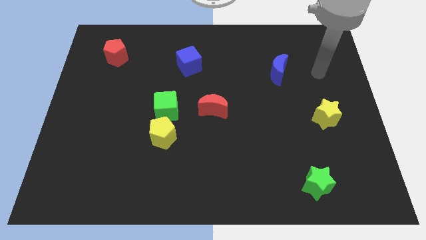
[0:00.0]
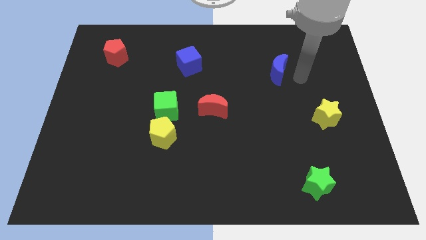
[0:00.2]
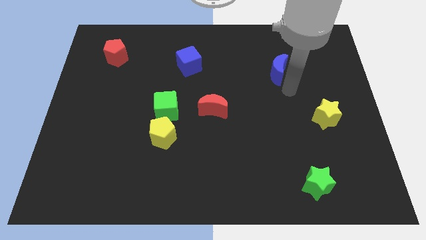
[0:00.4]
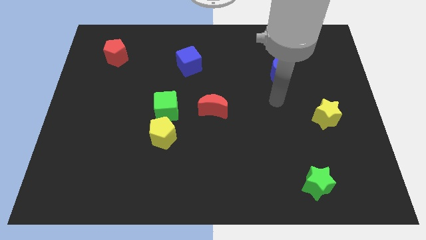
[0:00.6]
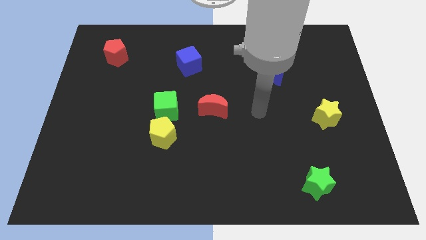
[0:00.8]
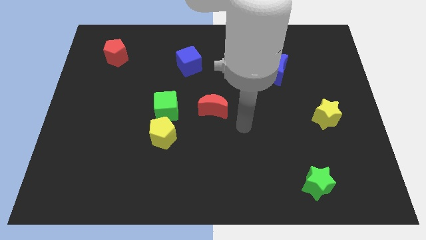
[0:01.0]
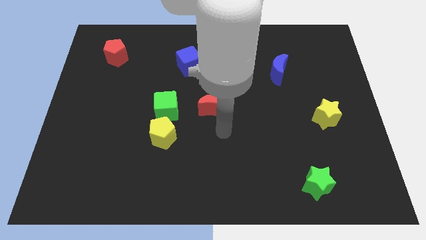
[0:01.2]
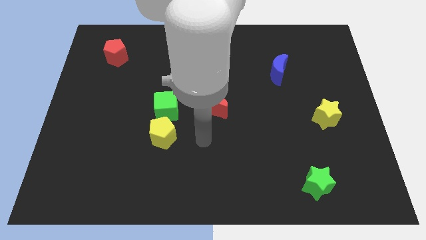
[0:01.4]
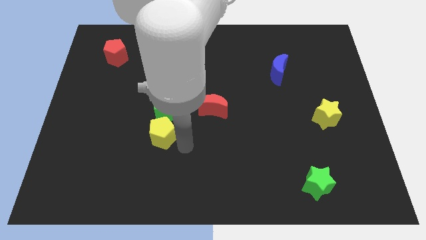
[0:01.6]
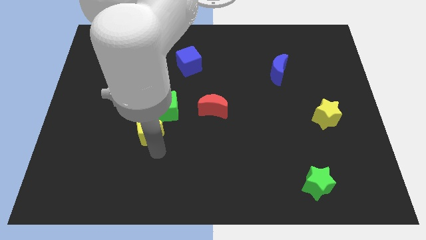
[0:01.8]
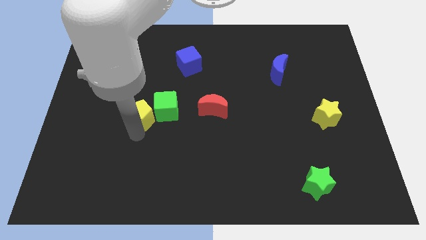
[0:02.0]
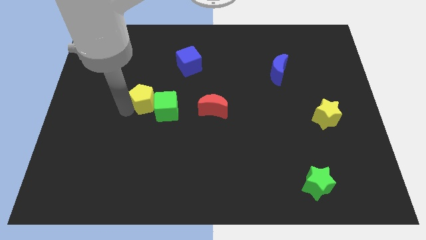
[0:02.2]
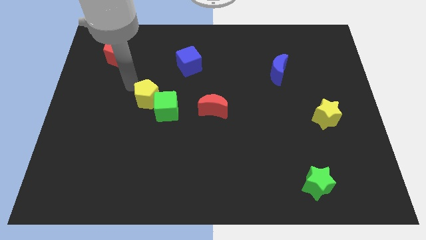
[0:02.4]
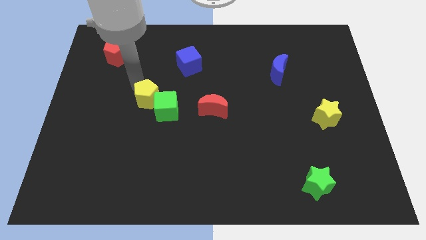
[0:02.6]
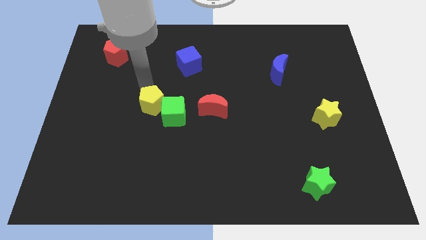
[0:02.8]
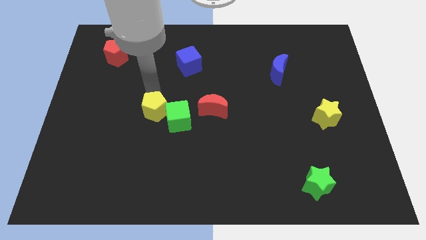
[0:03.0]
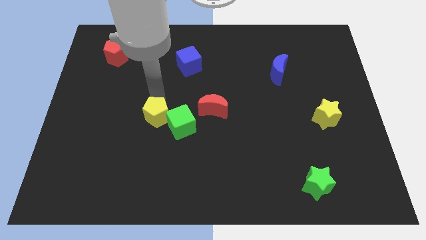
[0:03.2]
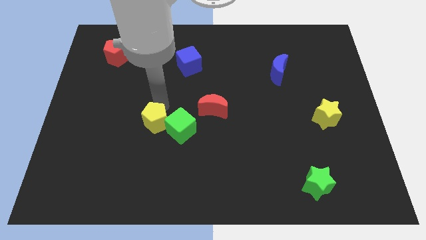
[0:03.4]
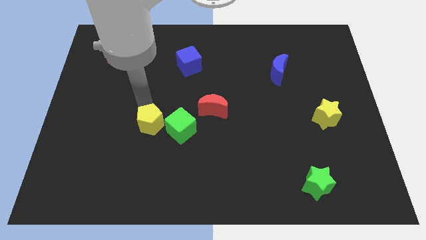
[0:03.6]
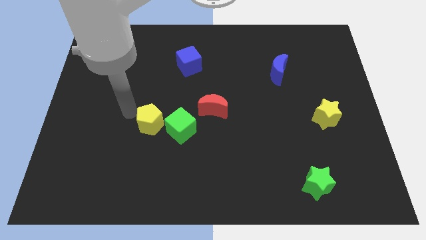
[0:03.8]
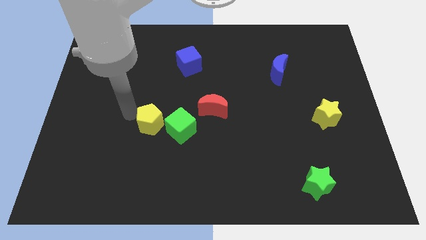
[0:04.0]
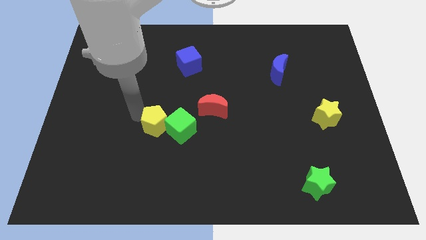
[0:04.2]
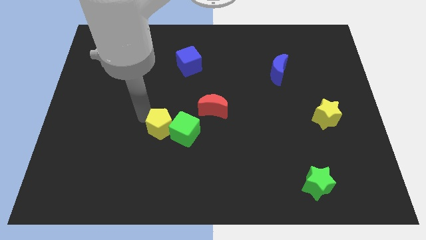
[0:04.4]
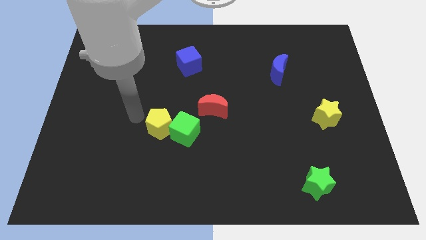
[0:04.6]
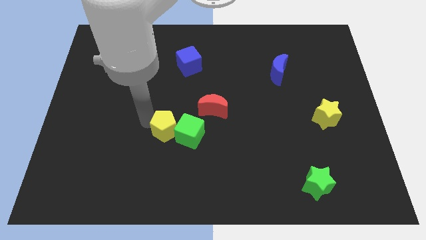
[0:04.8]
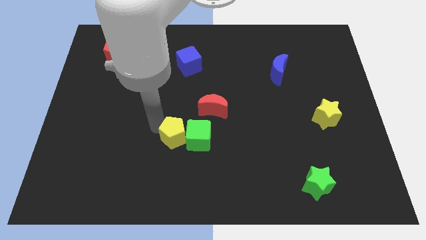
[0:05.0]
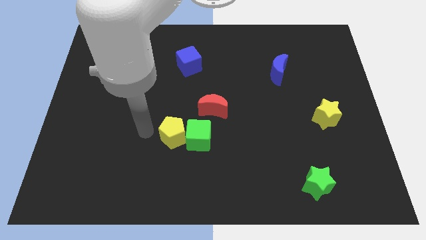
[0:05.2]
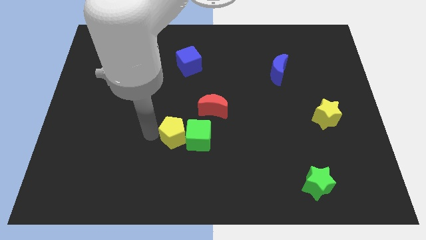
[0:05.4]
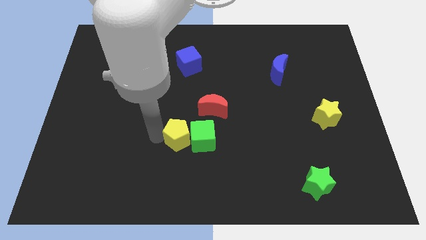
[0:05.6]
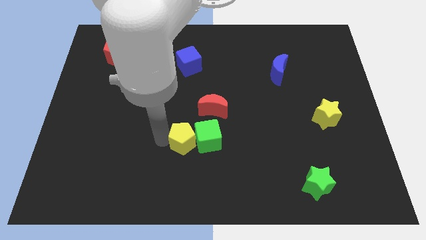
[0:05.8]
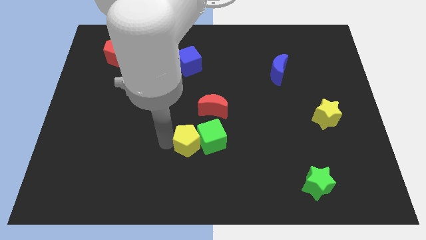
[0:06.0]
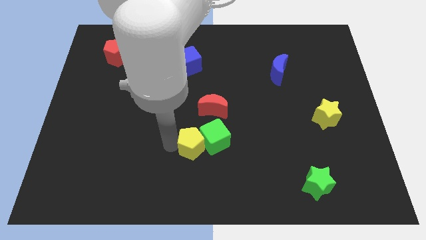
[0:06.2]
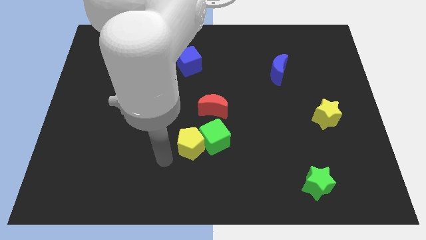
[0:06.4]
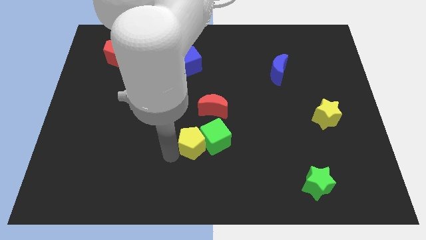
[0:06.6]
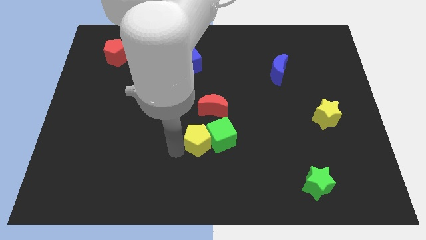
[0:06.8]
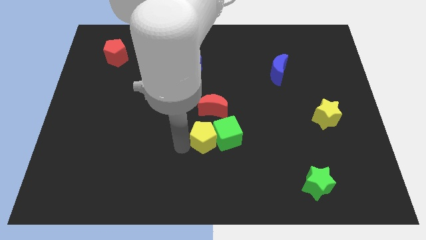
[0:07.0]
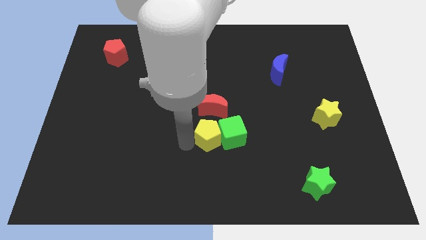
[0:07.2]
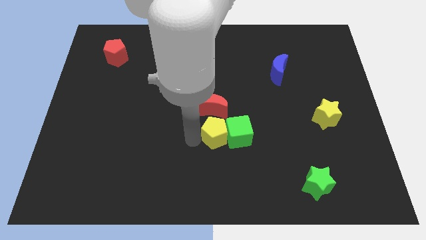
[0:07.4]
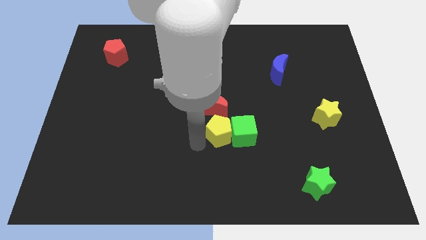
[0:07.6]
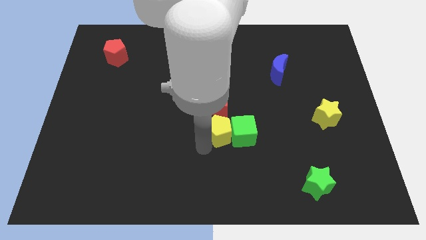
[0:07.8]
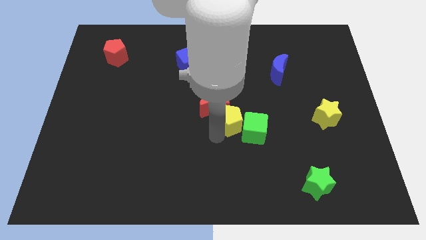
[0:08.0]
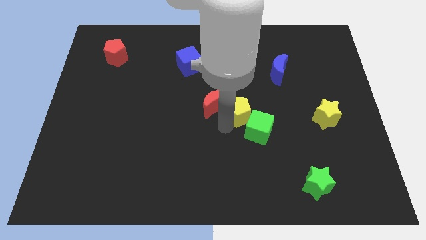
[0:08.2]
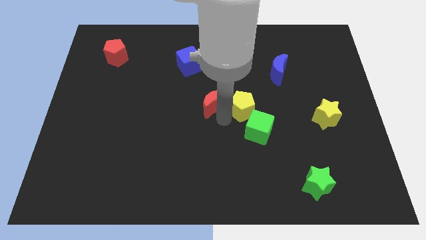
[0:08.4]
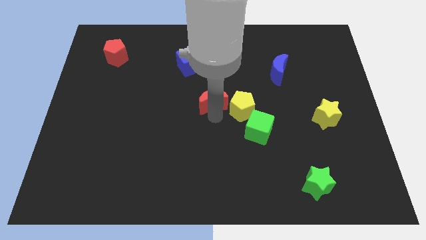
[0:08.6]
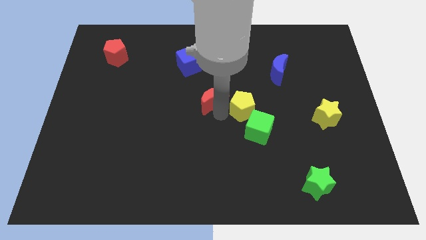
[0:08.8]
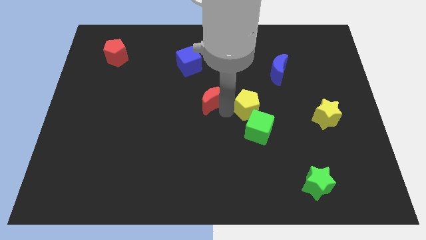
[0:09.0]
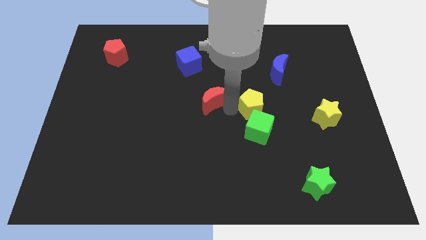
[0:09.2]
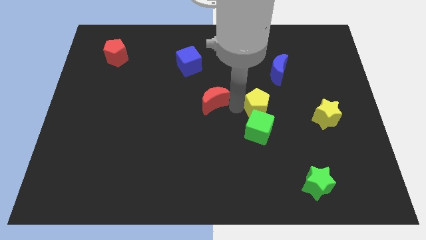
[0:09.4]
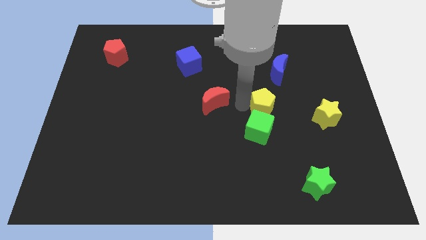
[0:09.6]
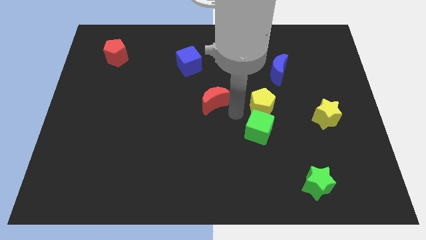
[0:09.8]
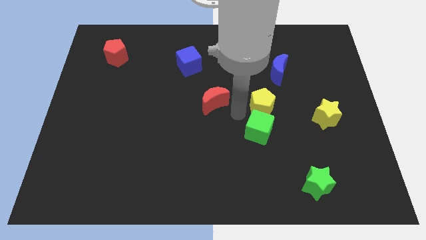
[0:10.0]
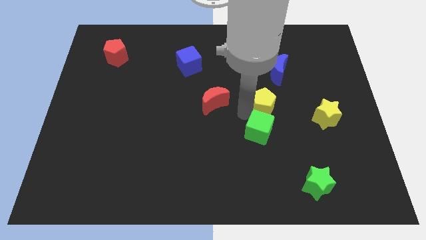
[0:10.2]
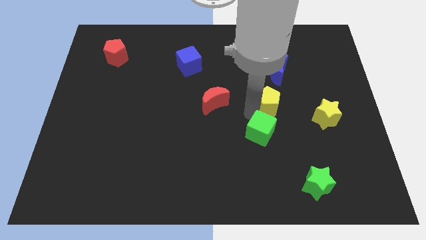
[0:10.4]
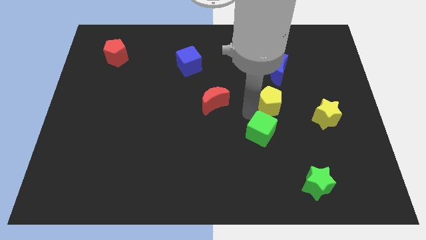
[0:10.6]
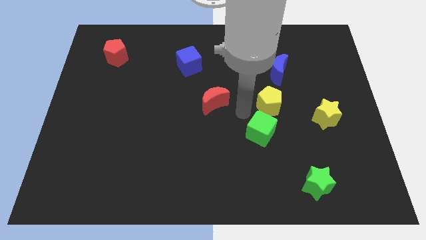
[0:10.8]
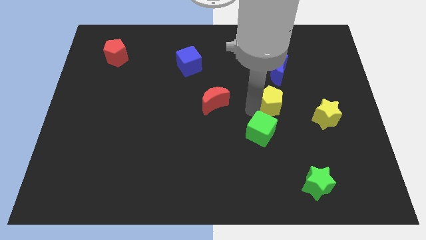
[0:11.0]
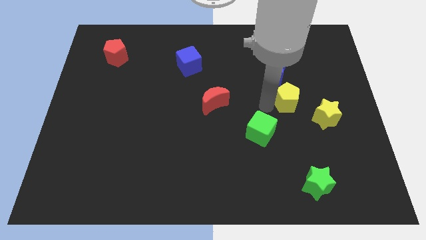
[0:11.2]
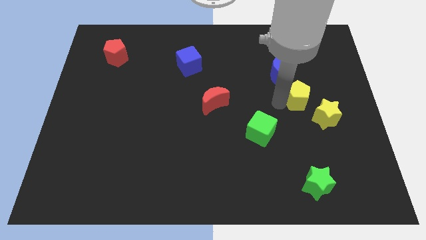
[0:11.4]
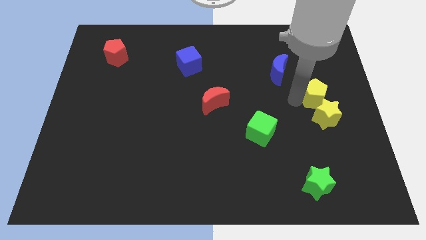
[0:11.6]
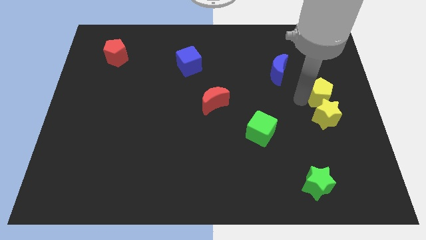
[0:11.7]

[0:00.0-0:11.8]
move the yellow pentagon to the right side of the board

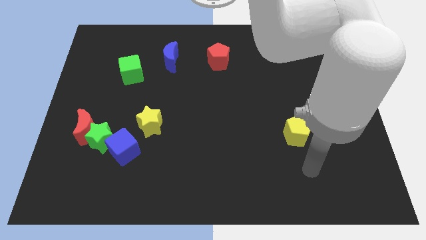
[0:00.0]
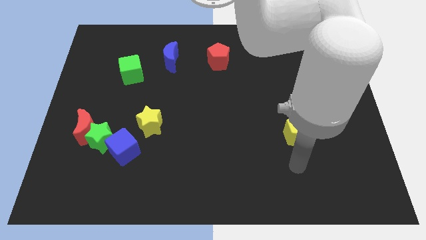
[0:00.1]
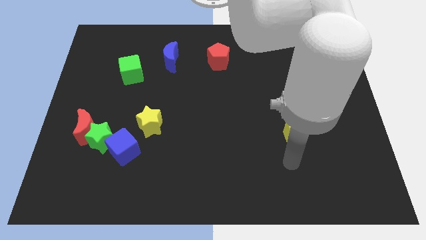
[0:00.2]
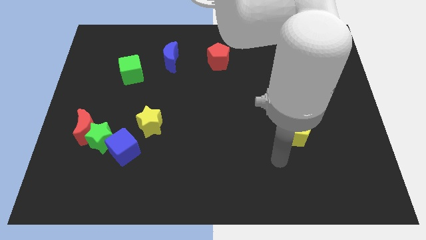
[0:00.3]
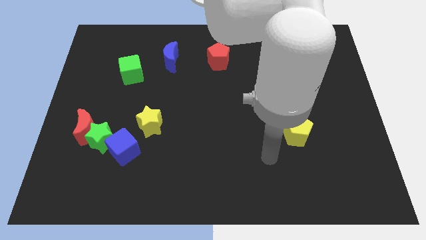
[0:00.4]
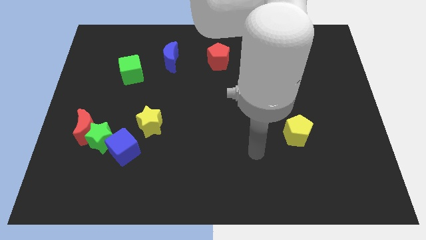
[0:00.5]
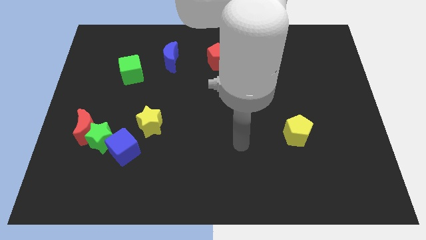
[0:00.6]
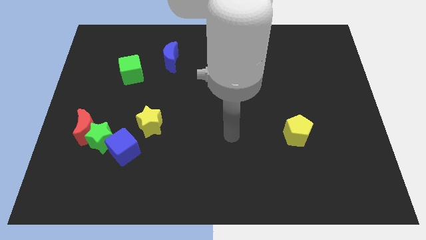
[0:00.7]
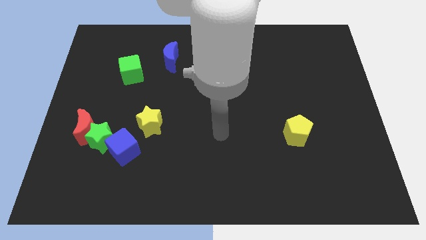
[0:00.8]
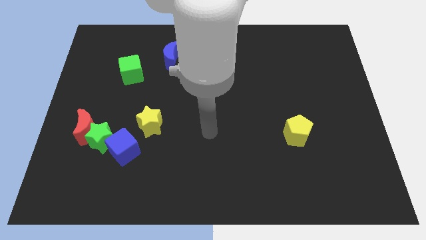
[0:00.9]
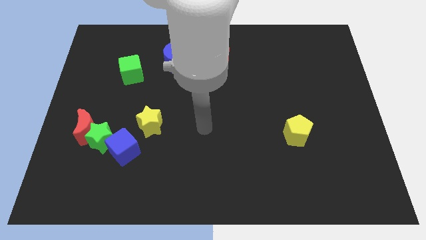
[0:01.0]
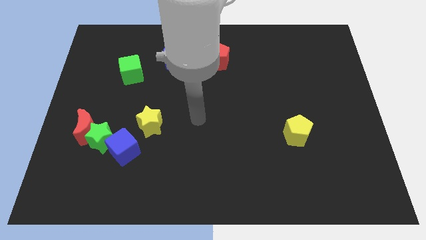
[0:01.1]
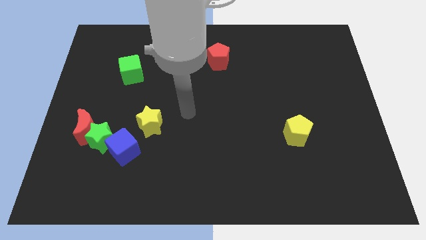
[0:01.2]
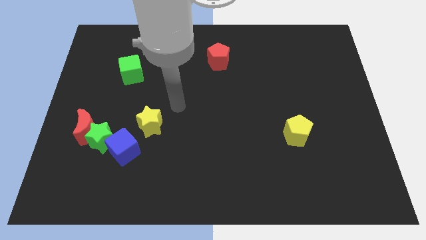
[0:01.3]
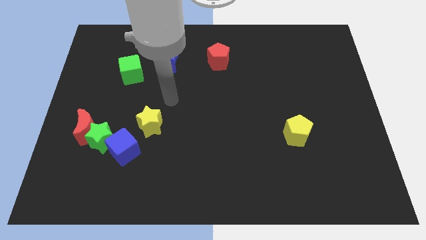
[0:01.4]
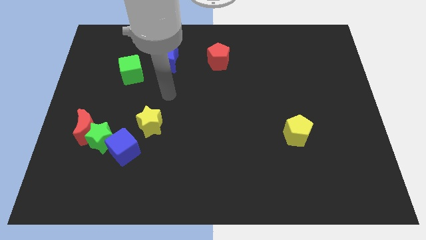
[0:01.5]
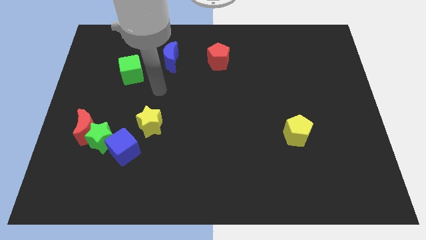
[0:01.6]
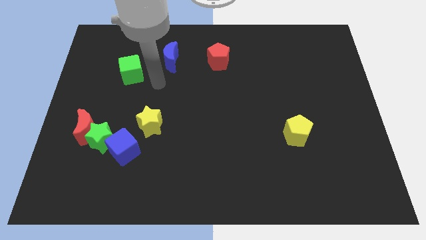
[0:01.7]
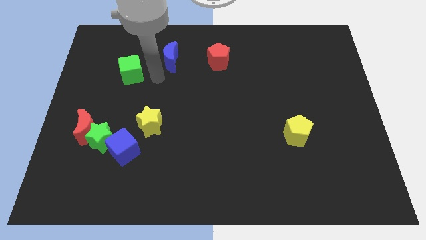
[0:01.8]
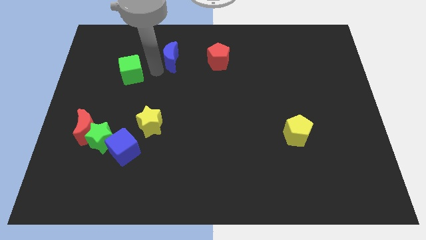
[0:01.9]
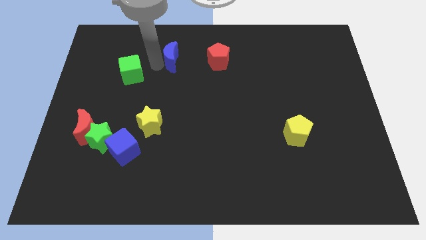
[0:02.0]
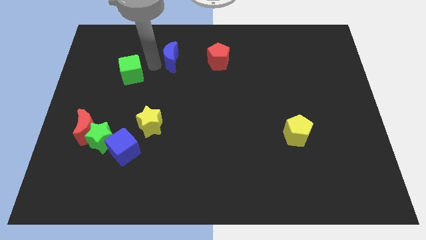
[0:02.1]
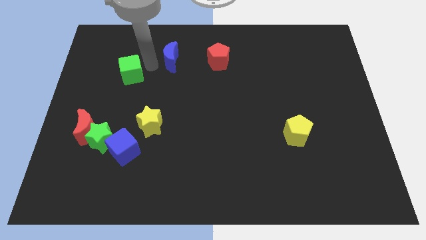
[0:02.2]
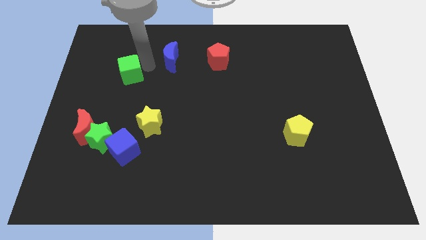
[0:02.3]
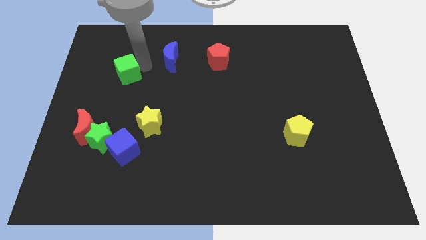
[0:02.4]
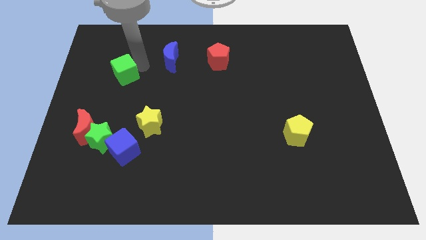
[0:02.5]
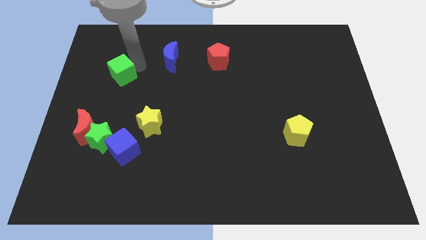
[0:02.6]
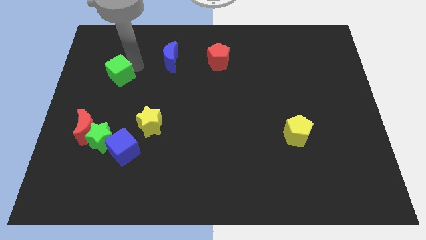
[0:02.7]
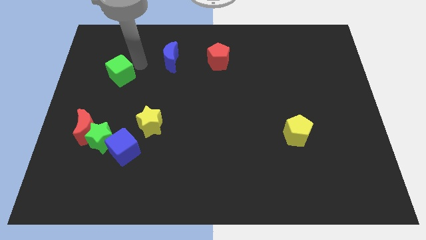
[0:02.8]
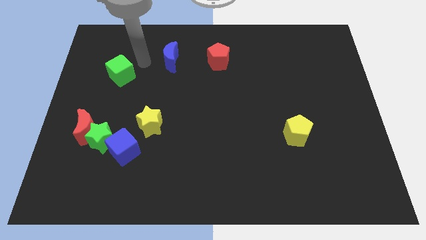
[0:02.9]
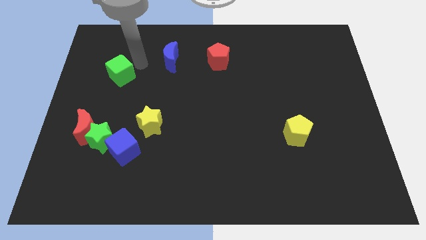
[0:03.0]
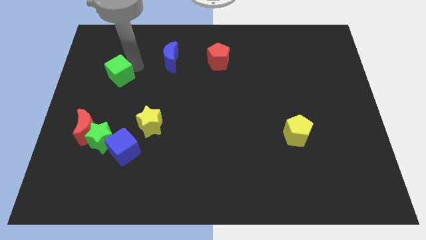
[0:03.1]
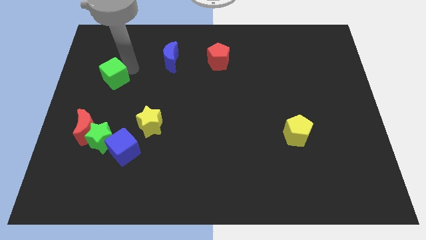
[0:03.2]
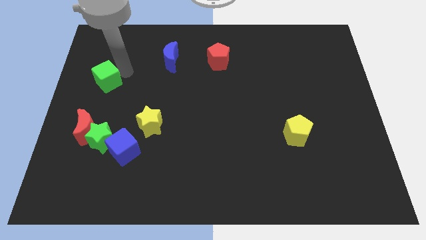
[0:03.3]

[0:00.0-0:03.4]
push the green cube to the left side
